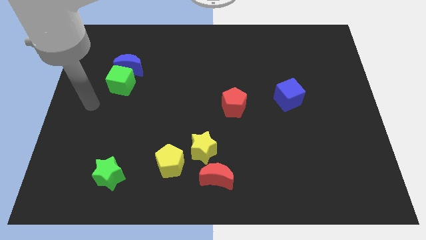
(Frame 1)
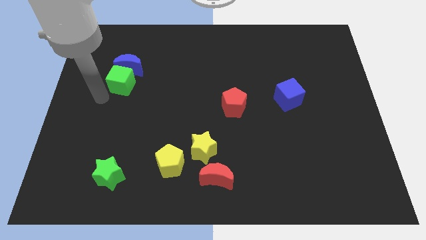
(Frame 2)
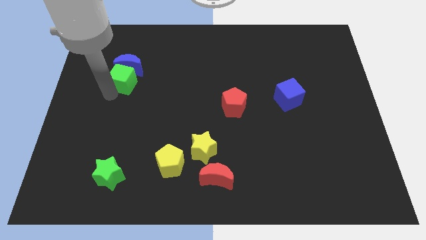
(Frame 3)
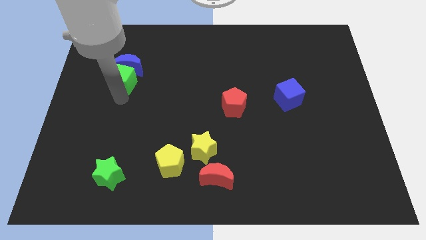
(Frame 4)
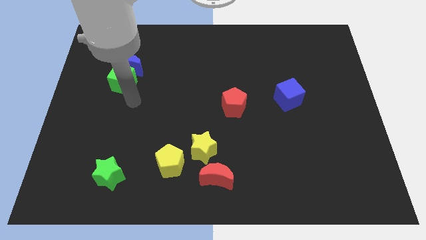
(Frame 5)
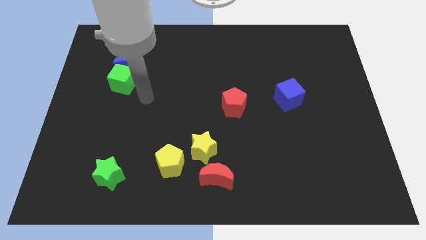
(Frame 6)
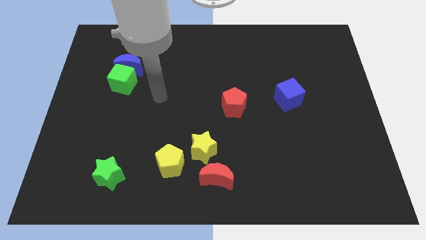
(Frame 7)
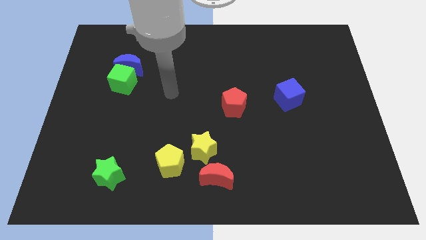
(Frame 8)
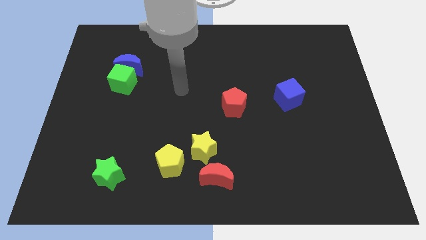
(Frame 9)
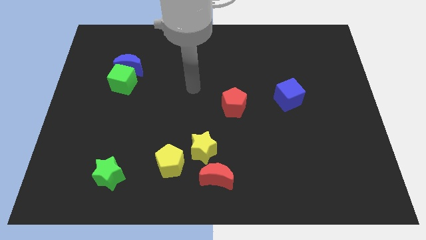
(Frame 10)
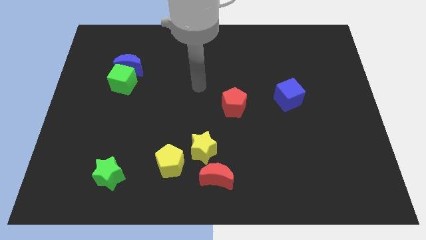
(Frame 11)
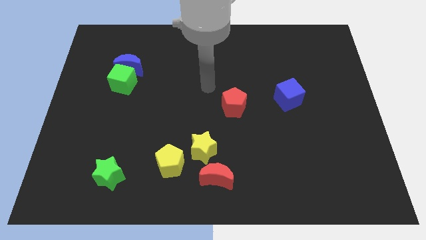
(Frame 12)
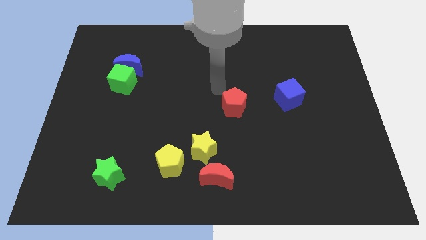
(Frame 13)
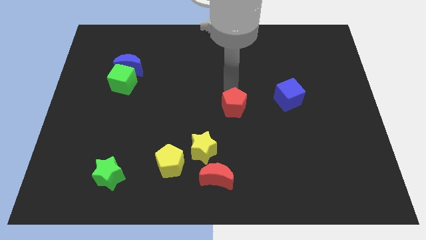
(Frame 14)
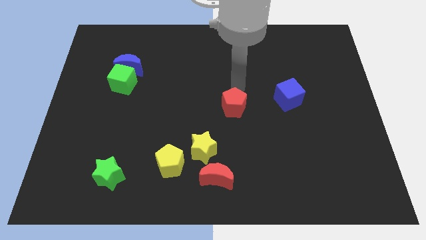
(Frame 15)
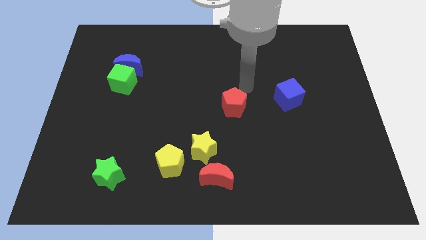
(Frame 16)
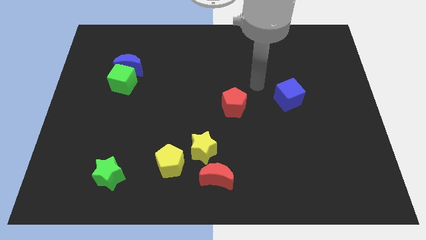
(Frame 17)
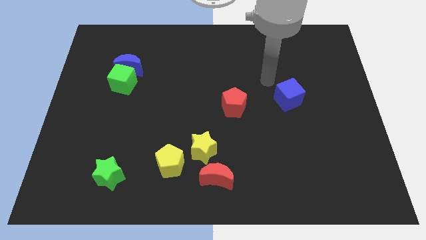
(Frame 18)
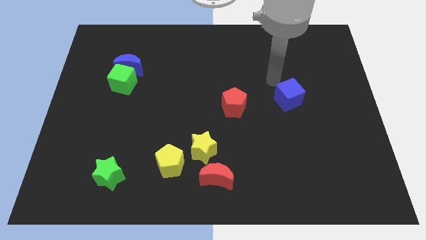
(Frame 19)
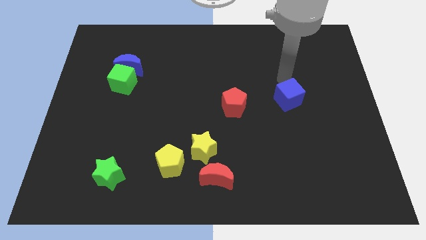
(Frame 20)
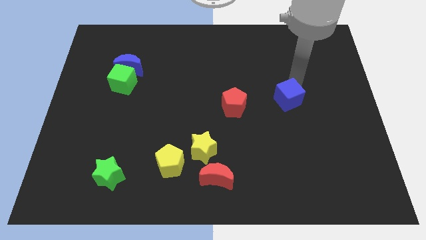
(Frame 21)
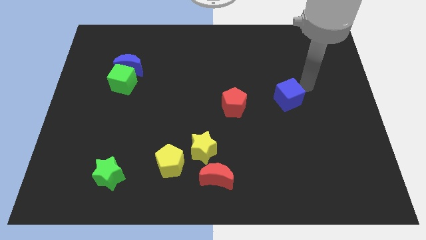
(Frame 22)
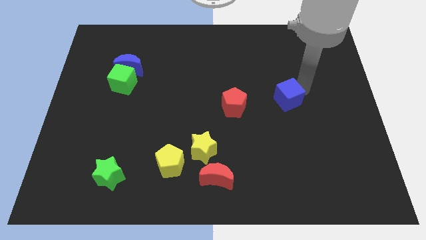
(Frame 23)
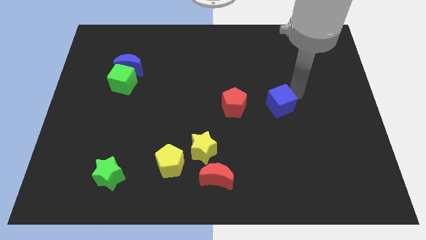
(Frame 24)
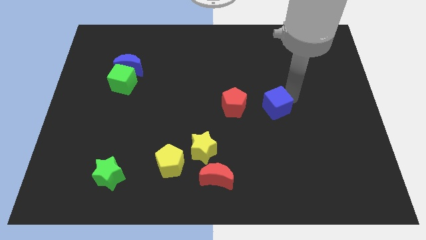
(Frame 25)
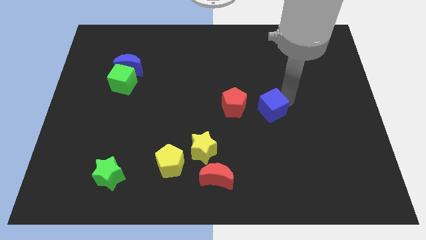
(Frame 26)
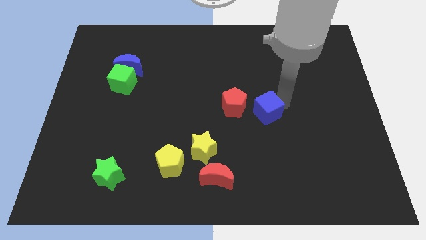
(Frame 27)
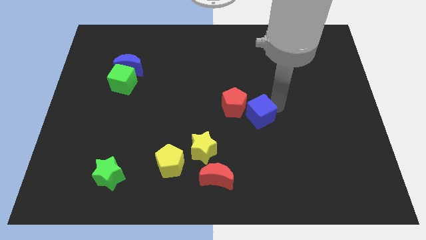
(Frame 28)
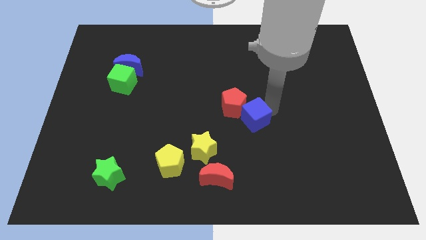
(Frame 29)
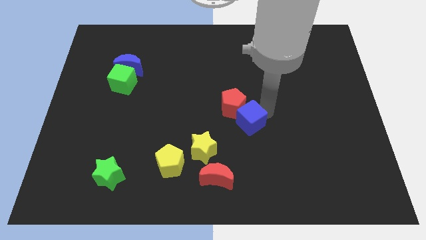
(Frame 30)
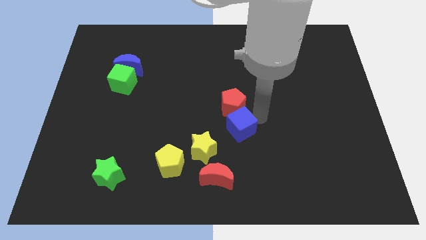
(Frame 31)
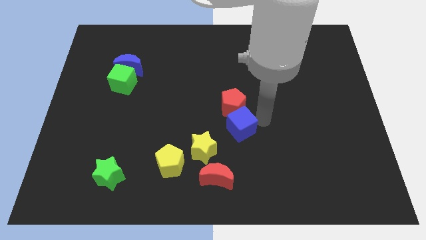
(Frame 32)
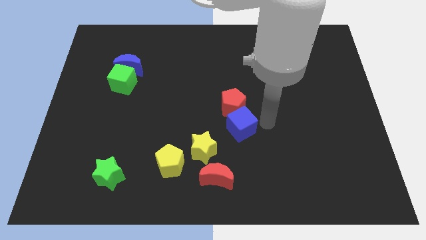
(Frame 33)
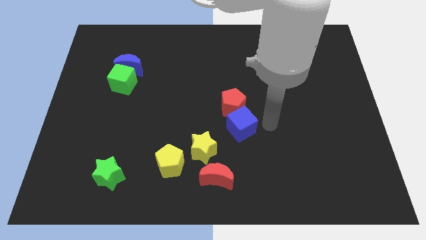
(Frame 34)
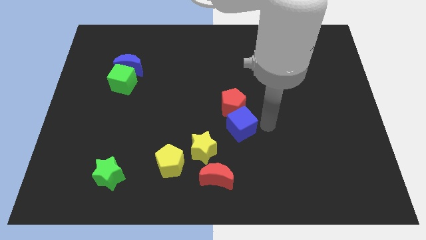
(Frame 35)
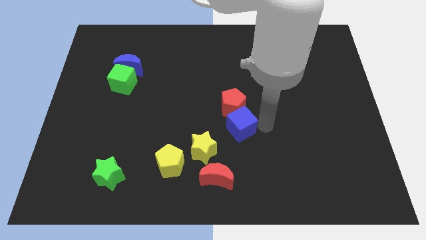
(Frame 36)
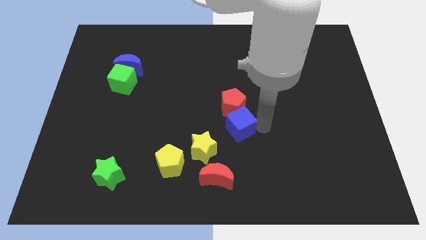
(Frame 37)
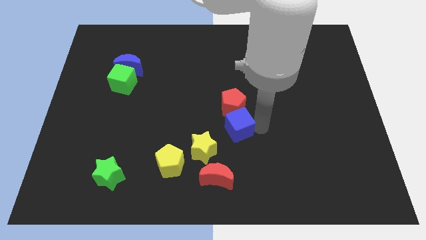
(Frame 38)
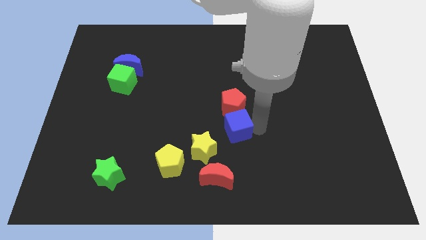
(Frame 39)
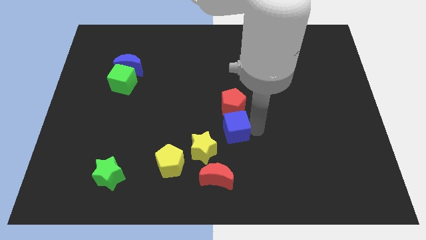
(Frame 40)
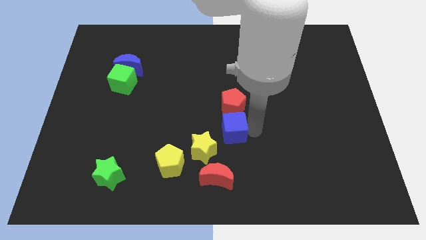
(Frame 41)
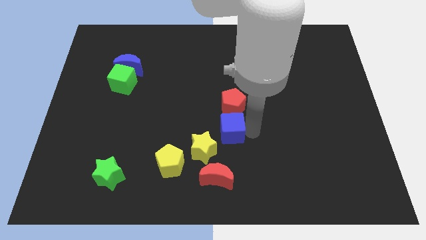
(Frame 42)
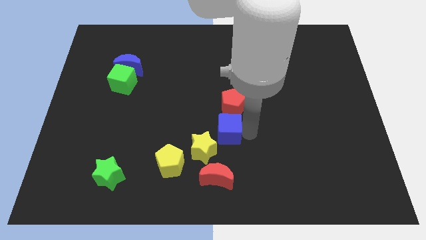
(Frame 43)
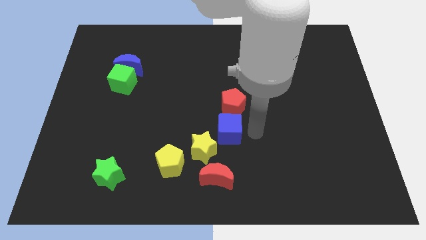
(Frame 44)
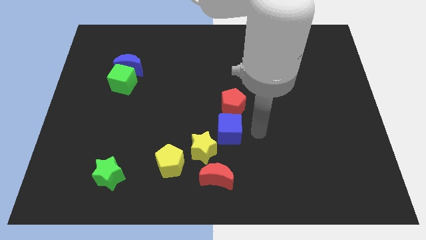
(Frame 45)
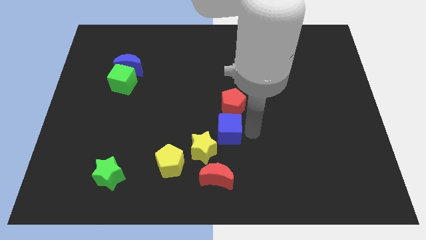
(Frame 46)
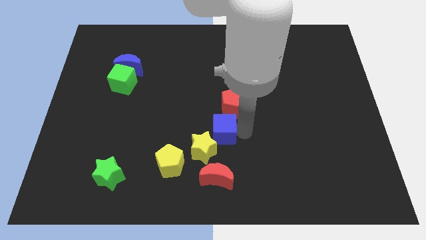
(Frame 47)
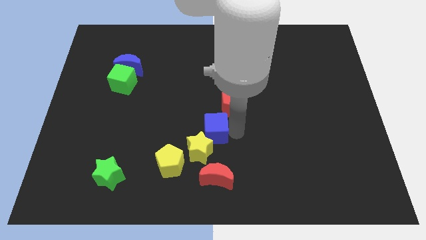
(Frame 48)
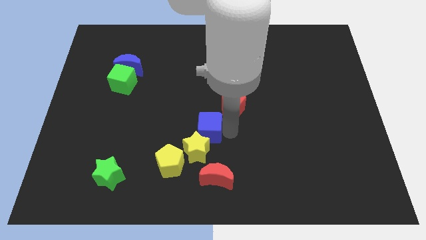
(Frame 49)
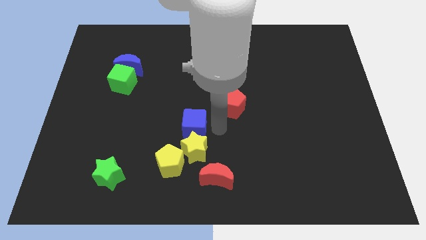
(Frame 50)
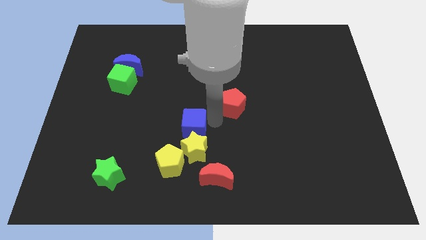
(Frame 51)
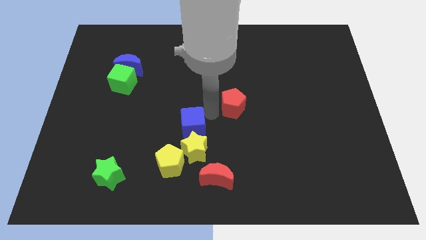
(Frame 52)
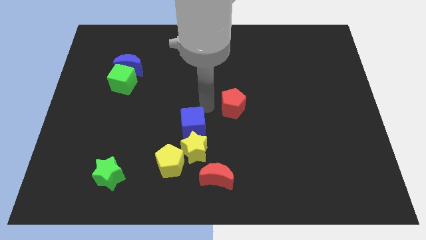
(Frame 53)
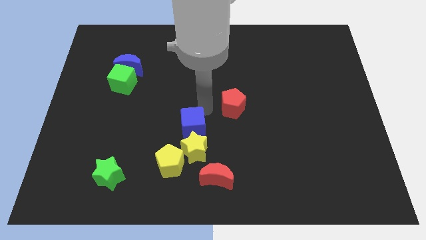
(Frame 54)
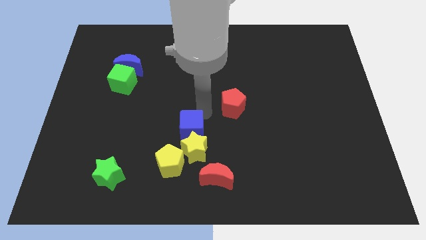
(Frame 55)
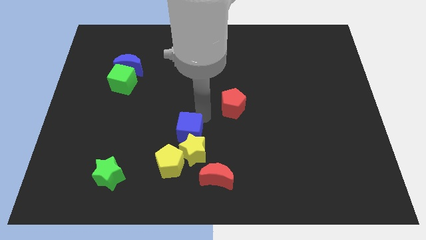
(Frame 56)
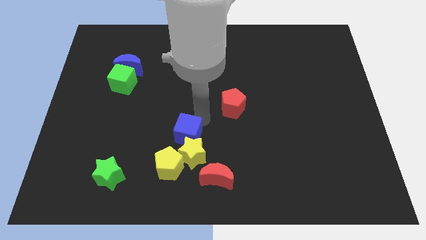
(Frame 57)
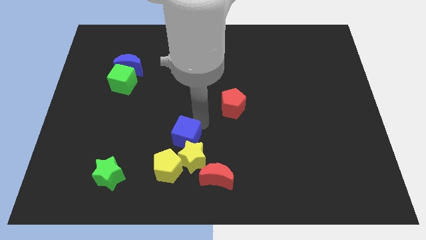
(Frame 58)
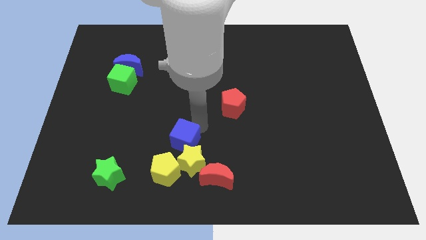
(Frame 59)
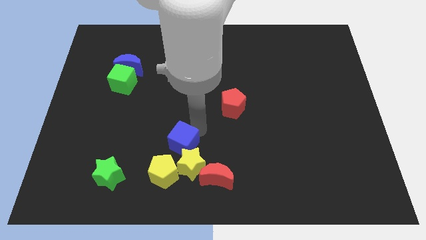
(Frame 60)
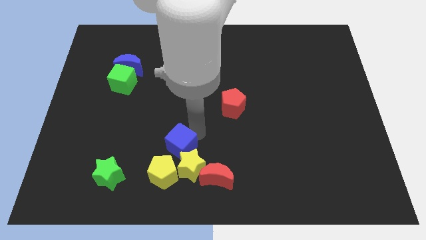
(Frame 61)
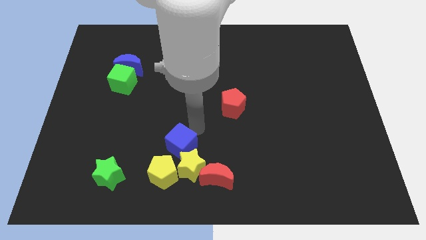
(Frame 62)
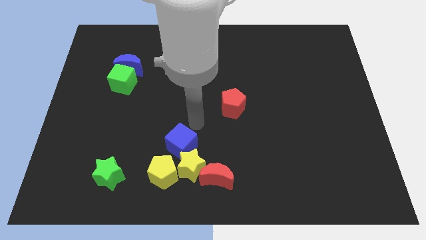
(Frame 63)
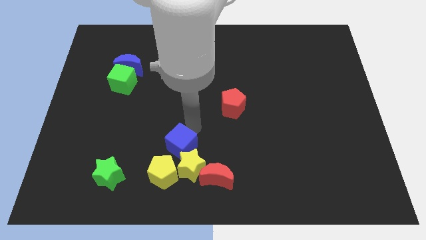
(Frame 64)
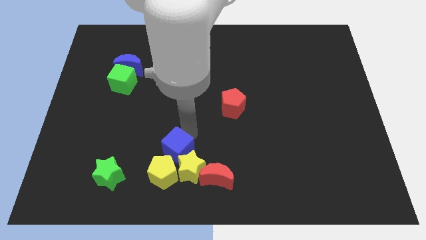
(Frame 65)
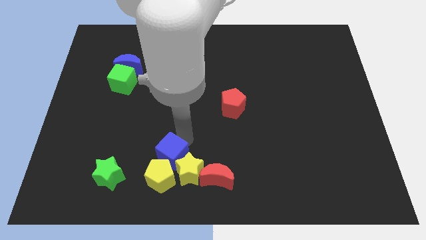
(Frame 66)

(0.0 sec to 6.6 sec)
move the blue cube close to the yellow pentagon

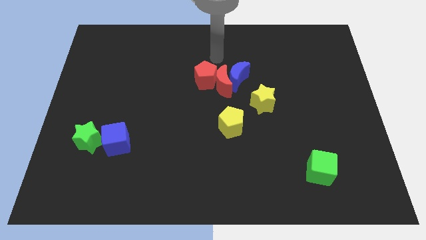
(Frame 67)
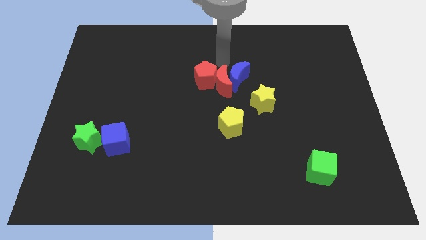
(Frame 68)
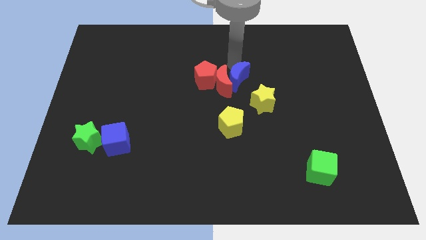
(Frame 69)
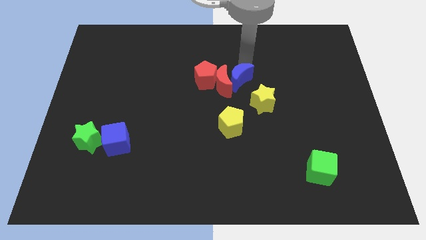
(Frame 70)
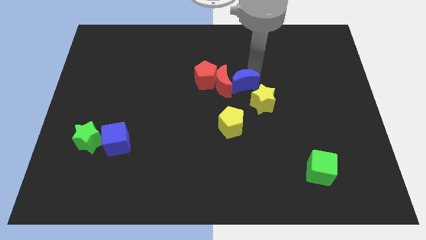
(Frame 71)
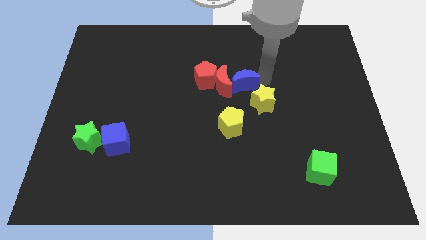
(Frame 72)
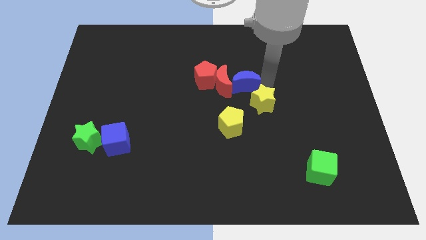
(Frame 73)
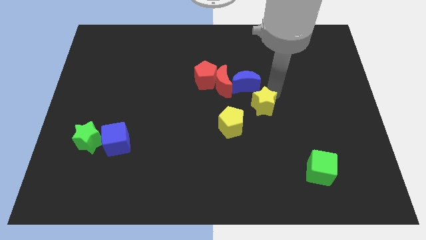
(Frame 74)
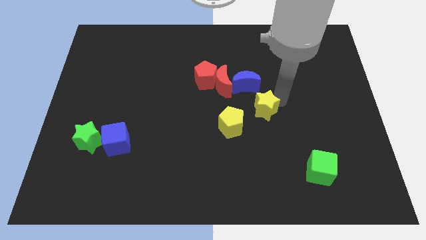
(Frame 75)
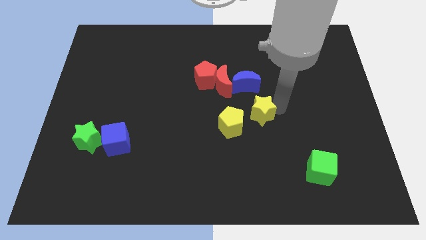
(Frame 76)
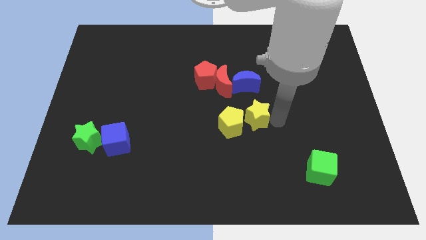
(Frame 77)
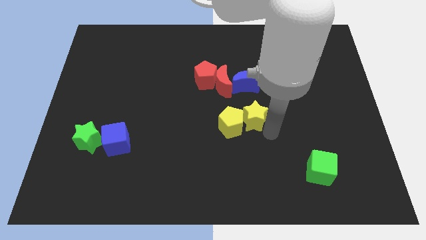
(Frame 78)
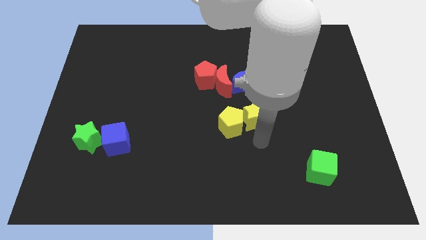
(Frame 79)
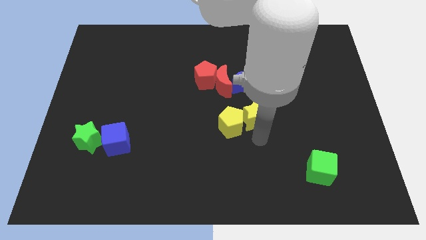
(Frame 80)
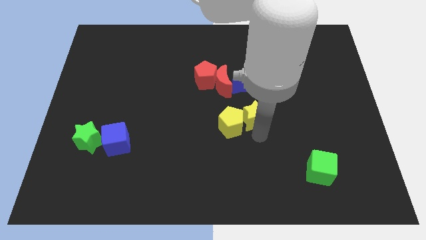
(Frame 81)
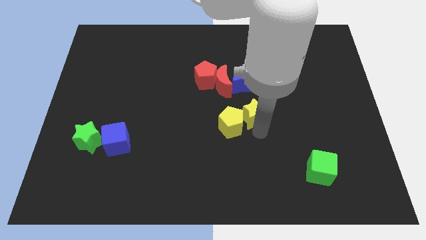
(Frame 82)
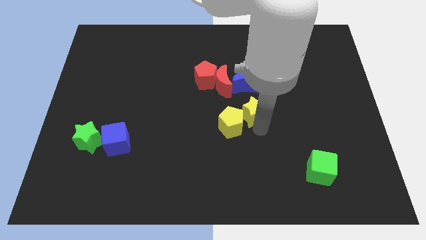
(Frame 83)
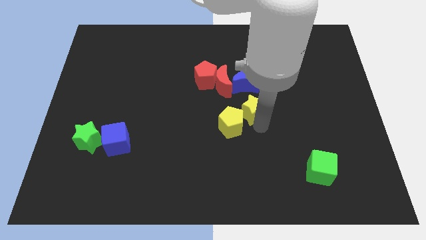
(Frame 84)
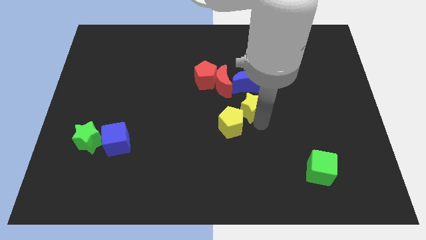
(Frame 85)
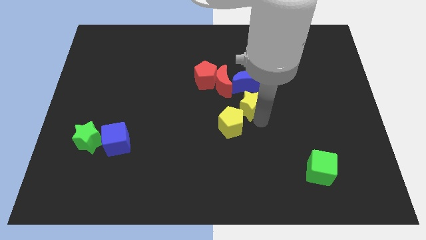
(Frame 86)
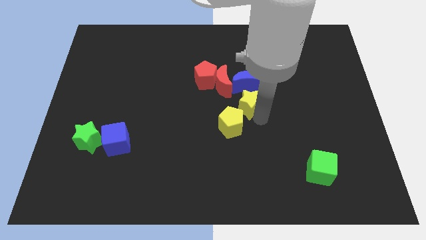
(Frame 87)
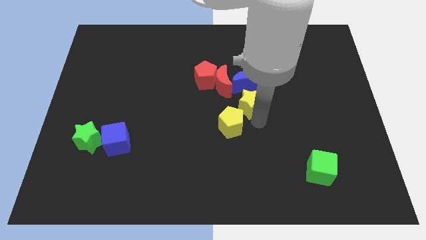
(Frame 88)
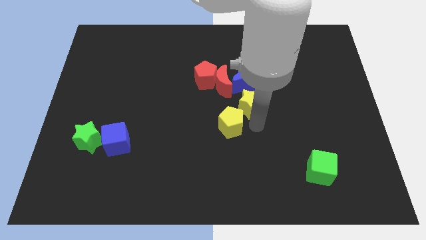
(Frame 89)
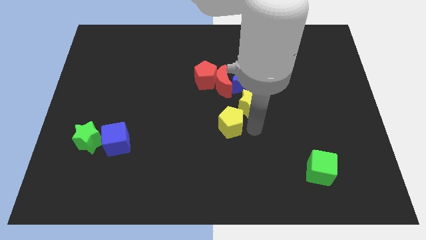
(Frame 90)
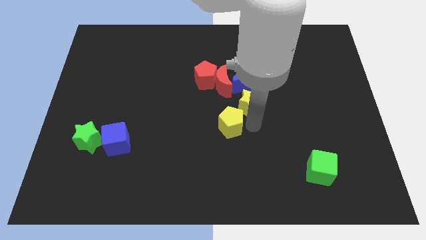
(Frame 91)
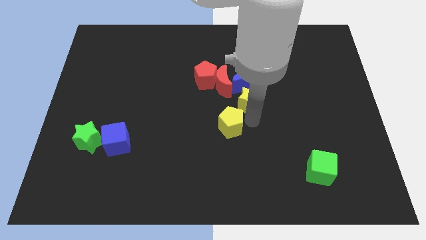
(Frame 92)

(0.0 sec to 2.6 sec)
move the yellow star towards the blue moon
